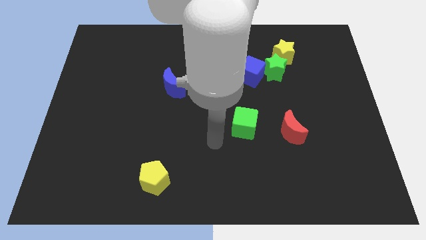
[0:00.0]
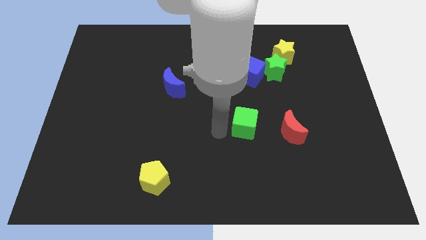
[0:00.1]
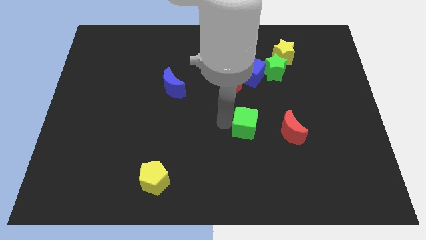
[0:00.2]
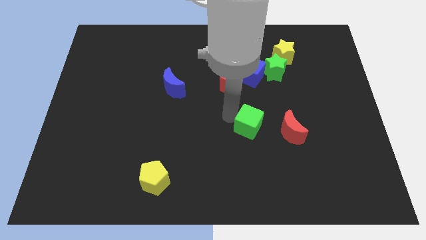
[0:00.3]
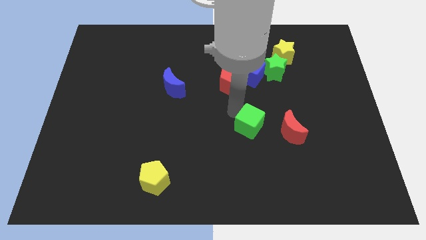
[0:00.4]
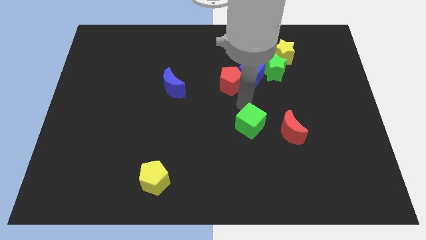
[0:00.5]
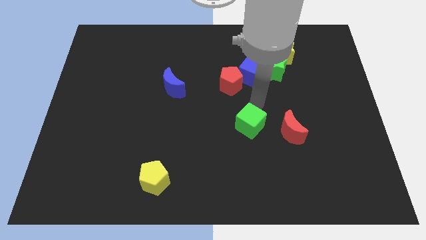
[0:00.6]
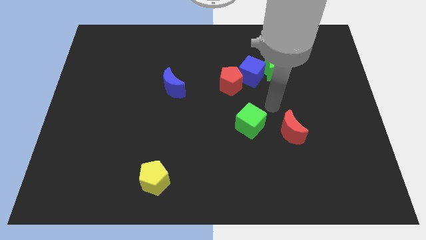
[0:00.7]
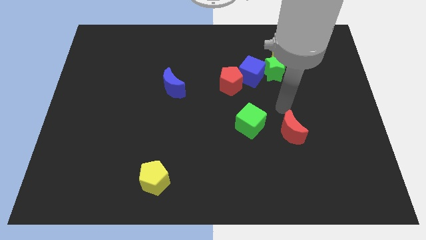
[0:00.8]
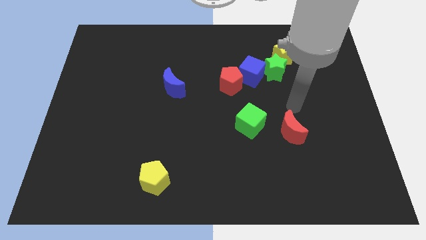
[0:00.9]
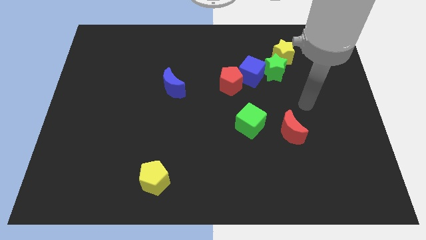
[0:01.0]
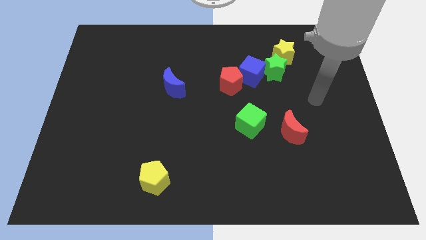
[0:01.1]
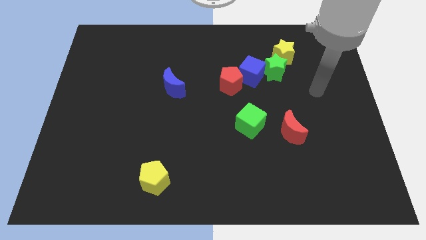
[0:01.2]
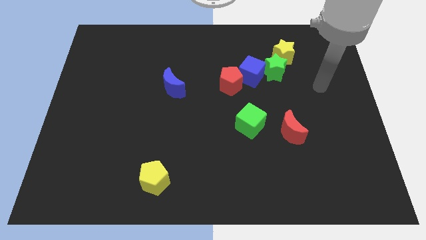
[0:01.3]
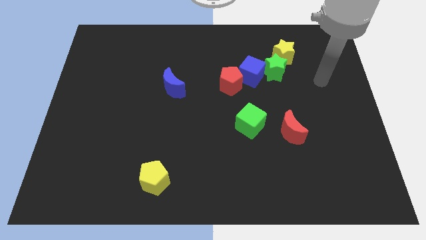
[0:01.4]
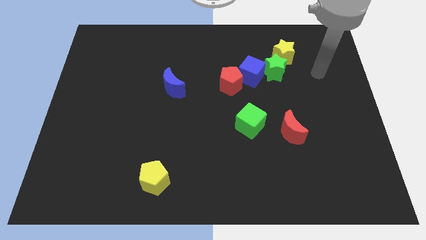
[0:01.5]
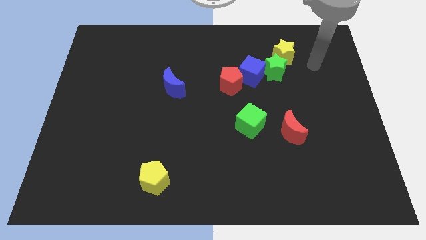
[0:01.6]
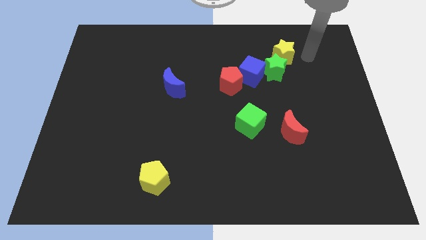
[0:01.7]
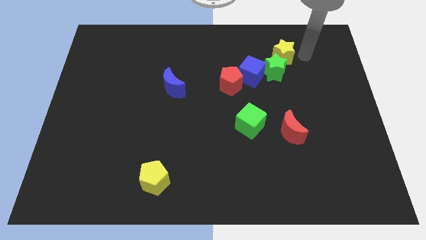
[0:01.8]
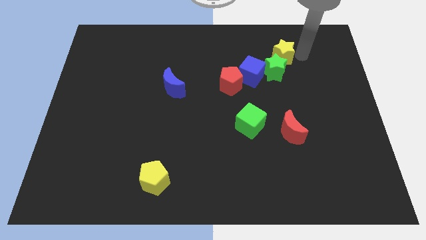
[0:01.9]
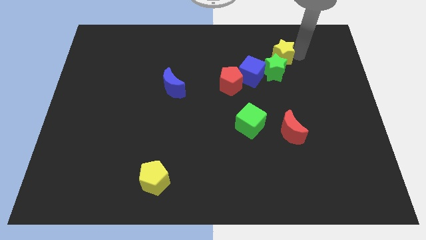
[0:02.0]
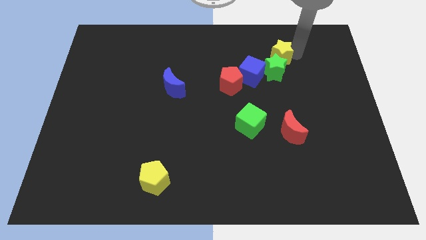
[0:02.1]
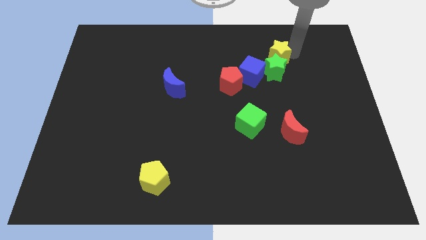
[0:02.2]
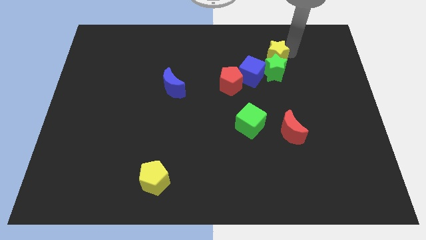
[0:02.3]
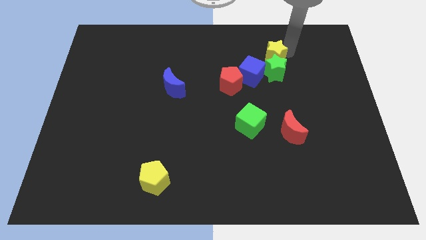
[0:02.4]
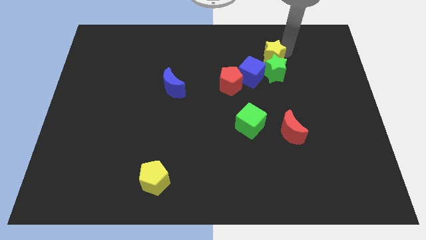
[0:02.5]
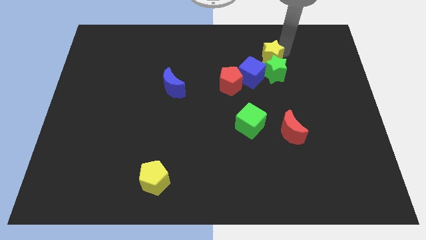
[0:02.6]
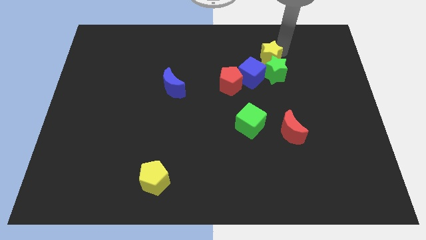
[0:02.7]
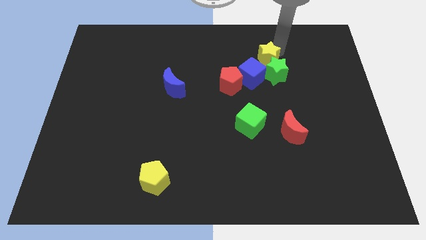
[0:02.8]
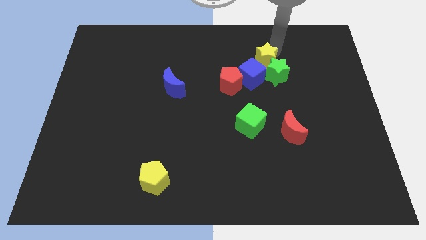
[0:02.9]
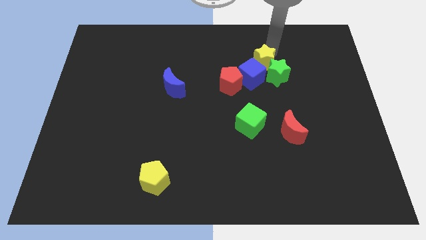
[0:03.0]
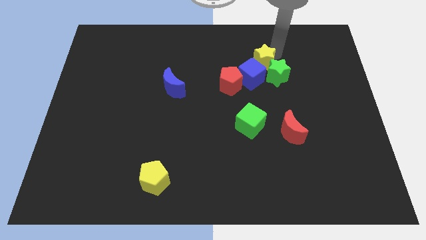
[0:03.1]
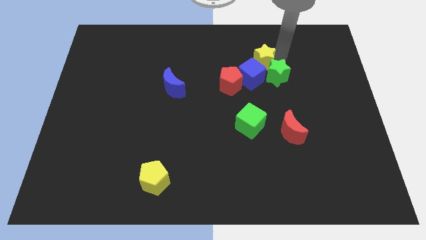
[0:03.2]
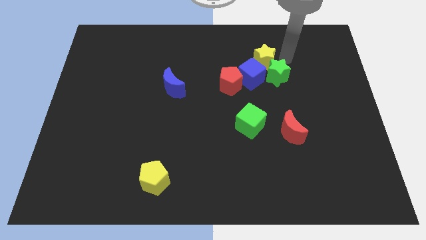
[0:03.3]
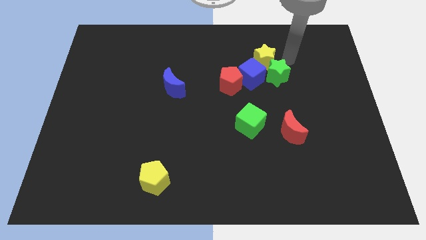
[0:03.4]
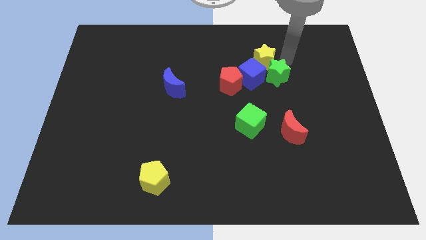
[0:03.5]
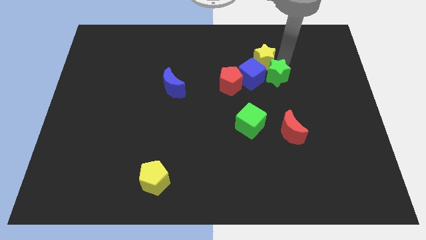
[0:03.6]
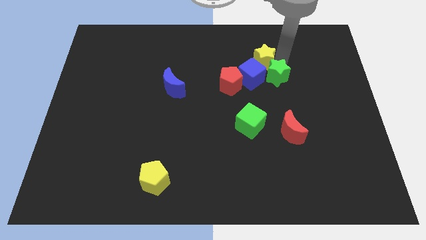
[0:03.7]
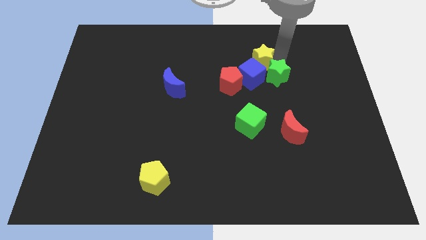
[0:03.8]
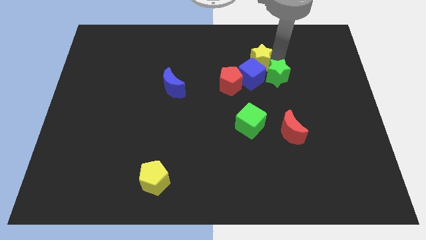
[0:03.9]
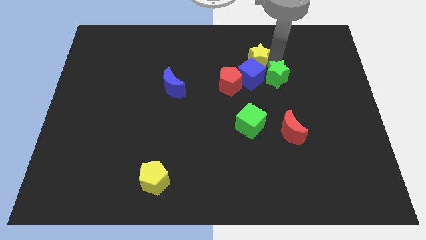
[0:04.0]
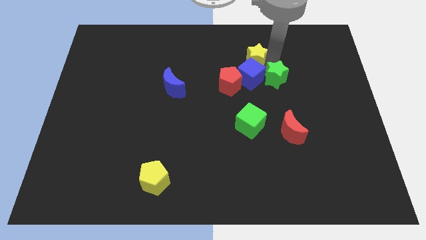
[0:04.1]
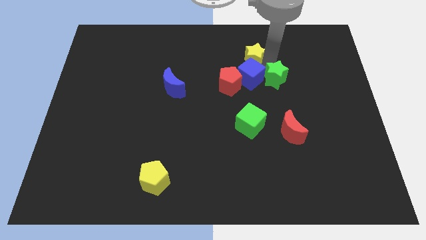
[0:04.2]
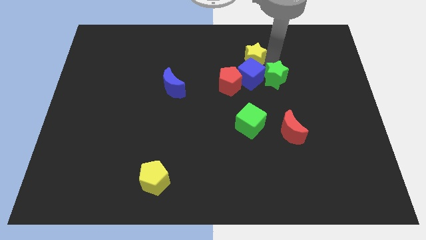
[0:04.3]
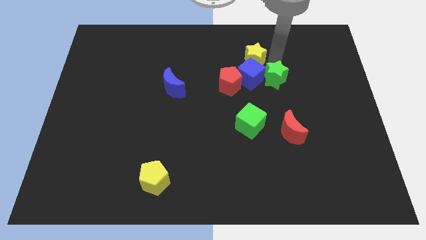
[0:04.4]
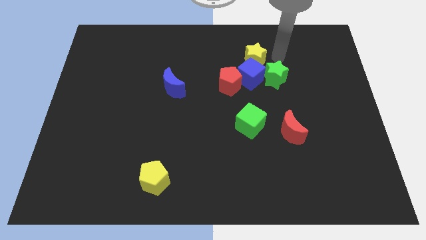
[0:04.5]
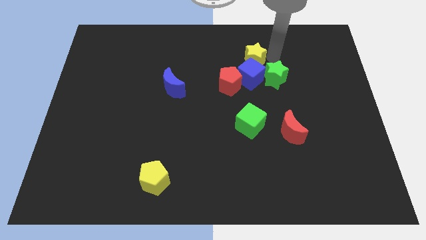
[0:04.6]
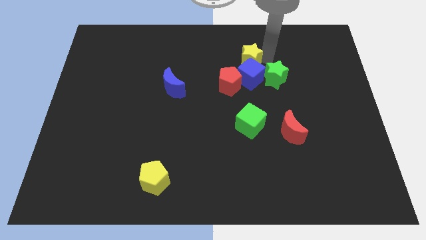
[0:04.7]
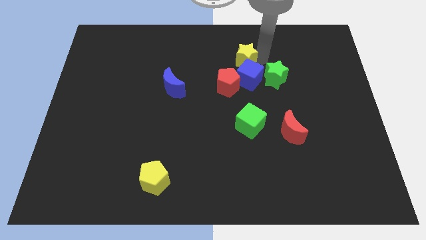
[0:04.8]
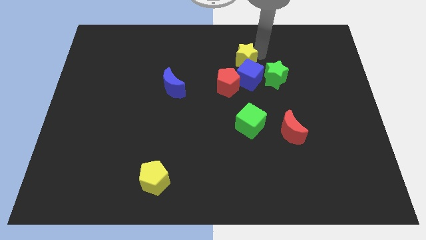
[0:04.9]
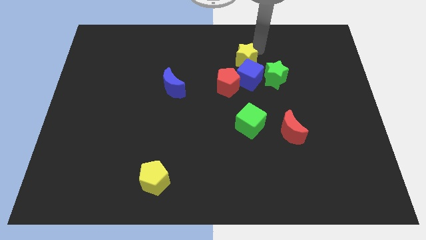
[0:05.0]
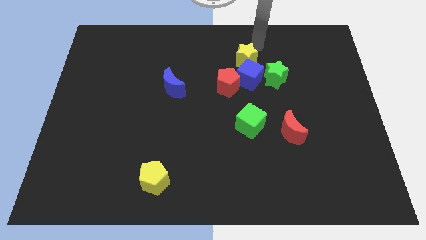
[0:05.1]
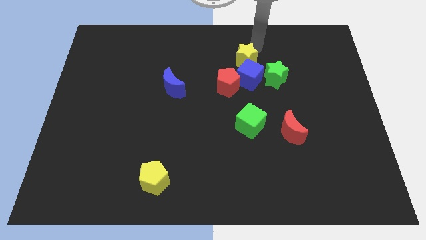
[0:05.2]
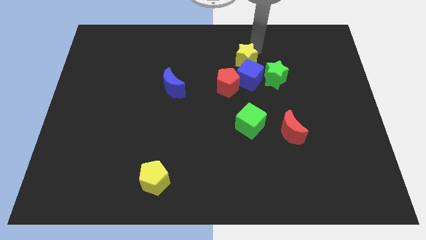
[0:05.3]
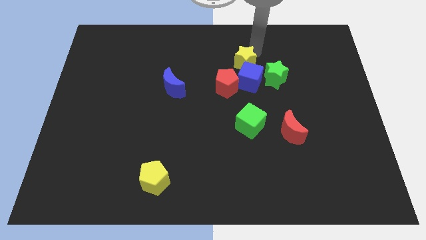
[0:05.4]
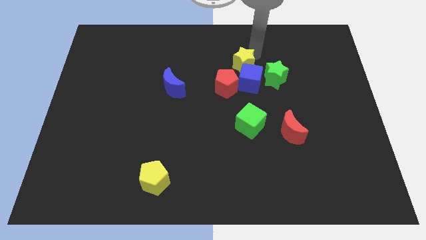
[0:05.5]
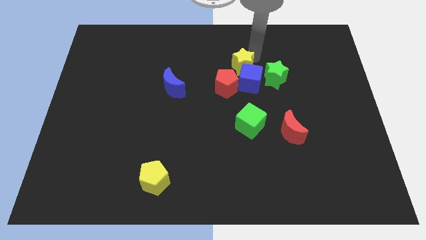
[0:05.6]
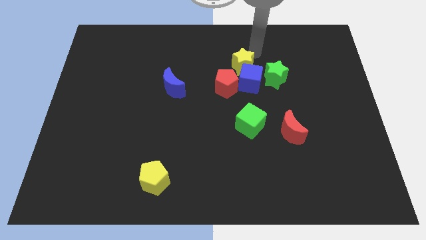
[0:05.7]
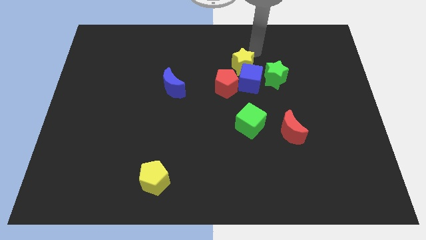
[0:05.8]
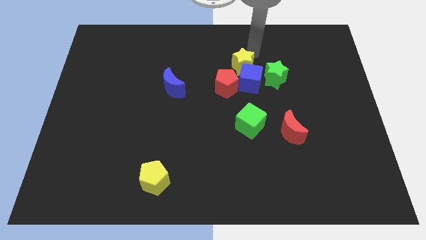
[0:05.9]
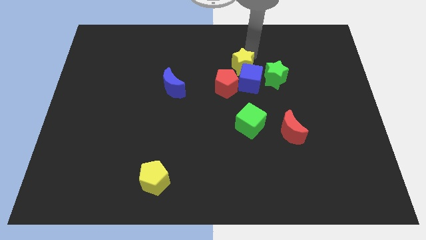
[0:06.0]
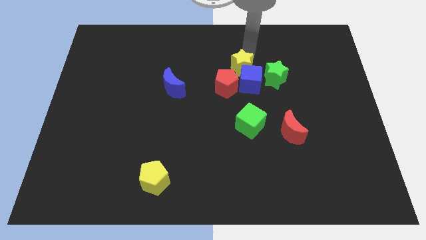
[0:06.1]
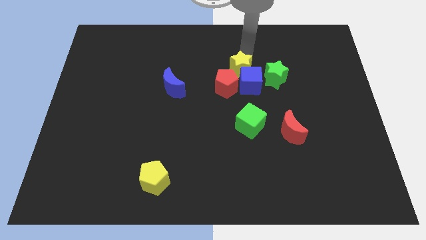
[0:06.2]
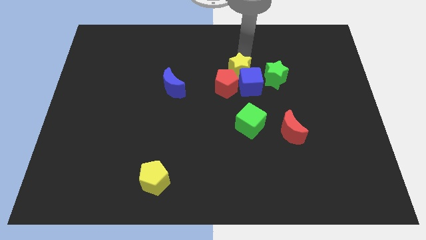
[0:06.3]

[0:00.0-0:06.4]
move the yellow star towards the red pentagon

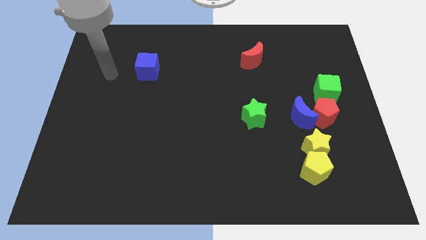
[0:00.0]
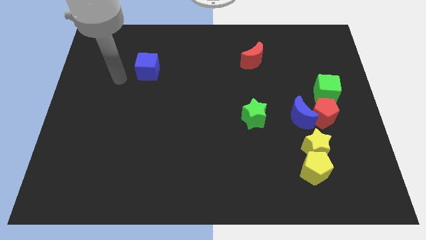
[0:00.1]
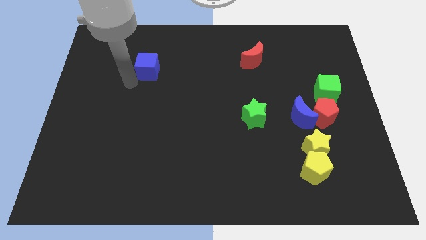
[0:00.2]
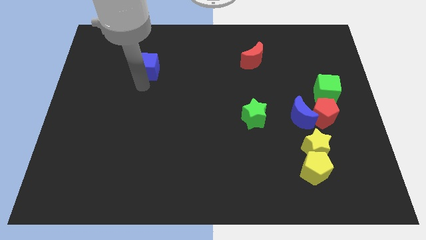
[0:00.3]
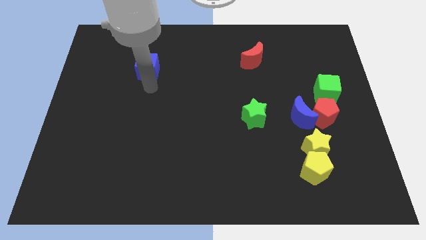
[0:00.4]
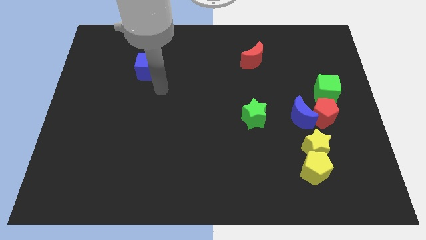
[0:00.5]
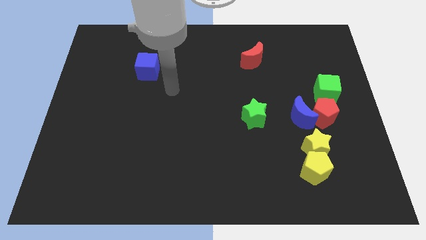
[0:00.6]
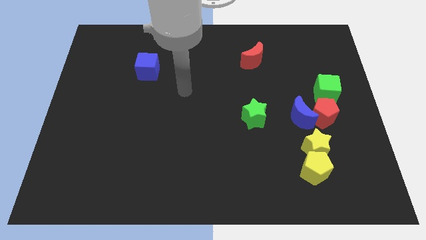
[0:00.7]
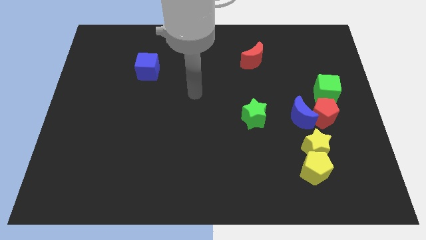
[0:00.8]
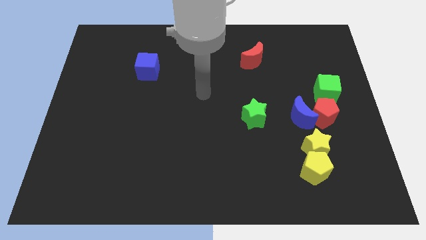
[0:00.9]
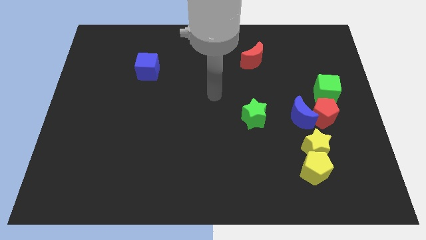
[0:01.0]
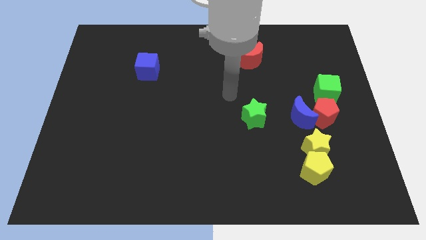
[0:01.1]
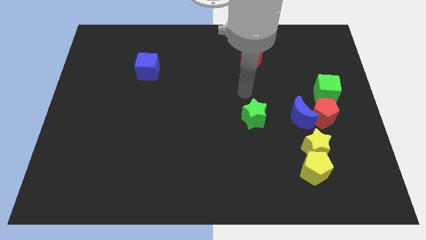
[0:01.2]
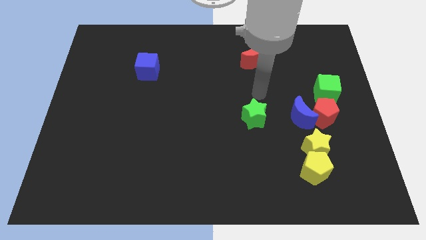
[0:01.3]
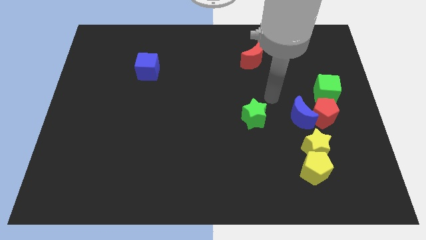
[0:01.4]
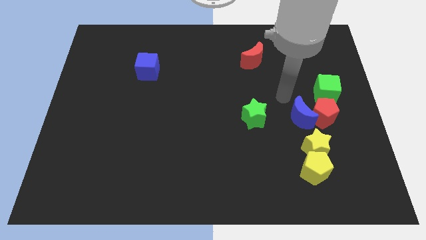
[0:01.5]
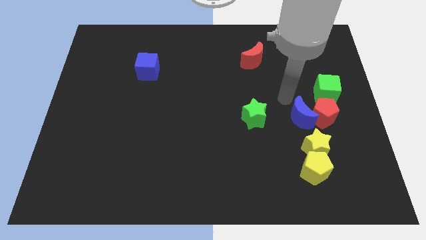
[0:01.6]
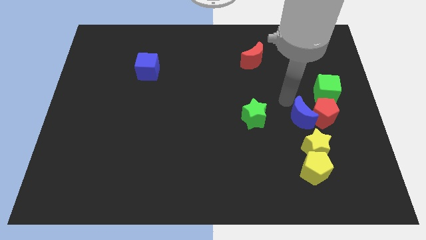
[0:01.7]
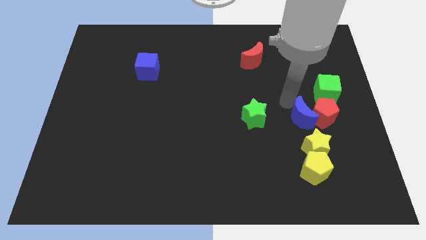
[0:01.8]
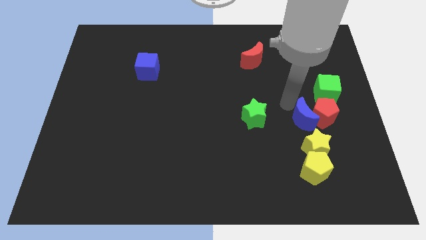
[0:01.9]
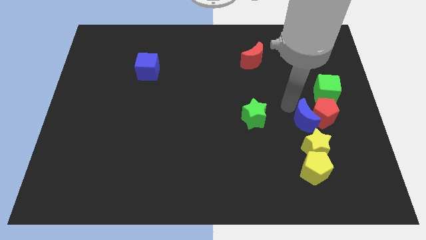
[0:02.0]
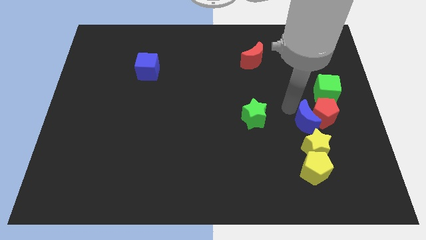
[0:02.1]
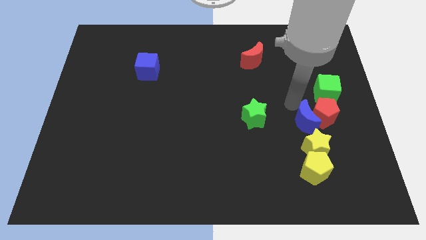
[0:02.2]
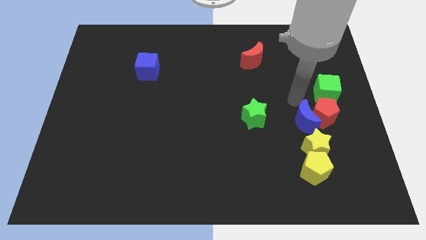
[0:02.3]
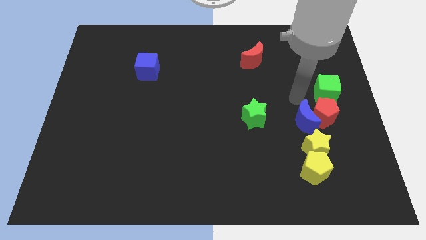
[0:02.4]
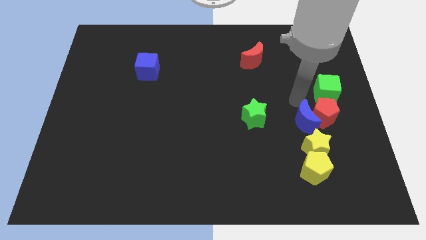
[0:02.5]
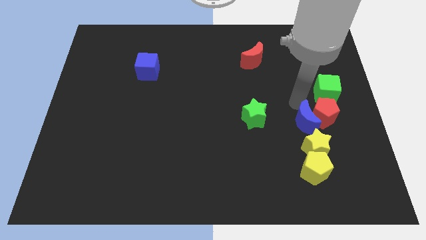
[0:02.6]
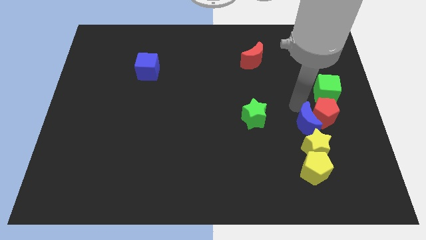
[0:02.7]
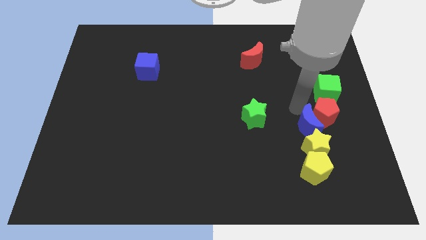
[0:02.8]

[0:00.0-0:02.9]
push the blue moon towards the yellow star
